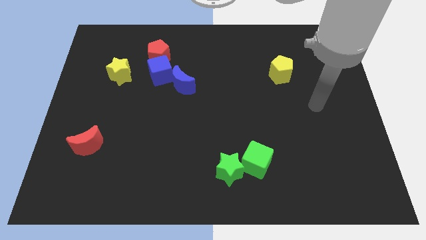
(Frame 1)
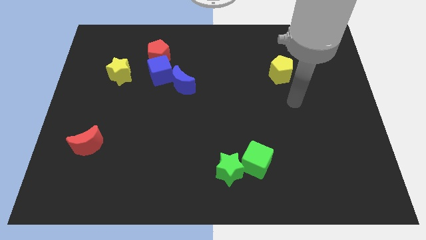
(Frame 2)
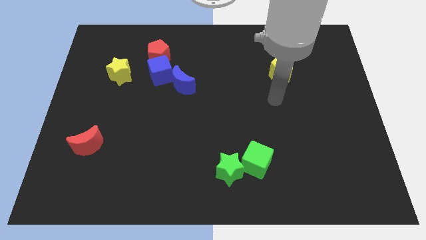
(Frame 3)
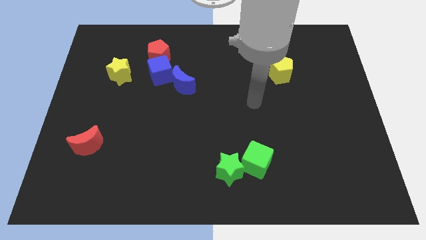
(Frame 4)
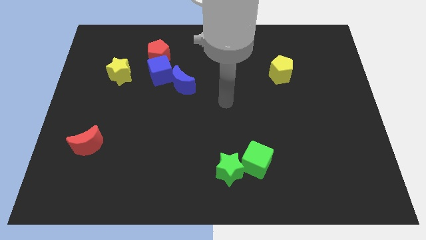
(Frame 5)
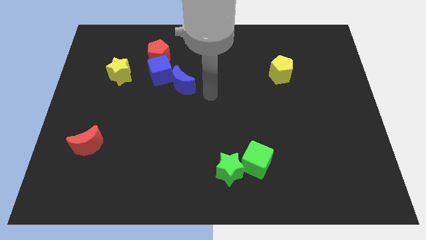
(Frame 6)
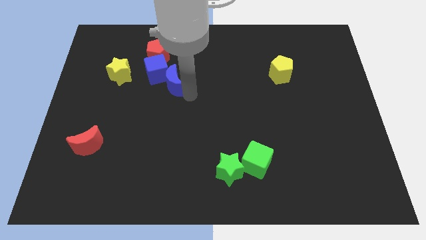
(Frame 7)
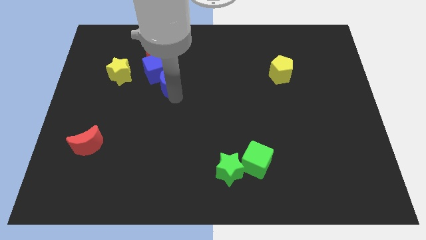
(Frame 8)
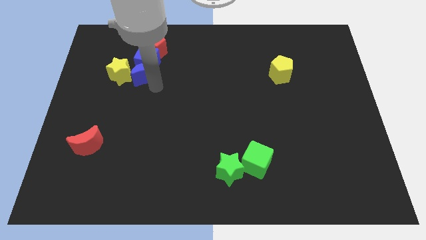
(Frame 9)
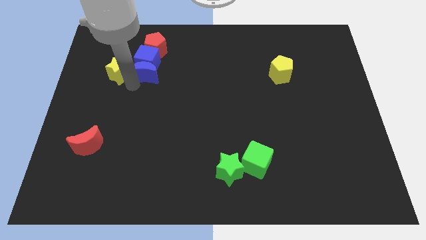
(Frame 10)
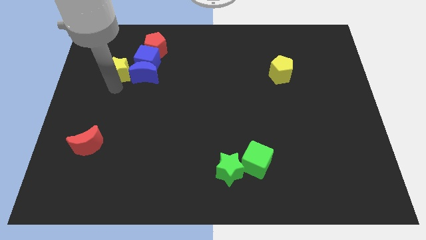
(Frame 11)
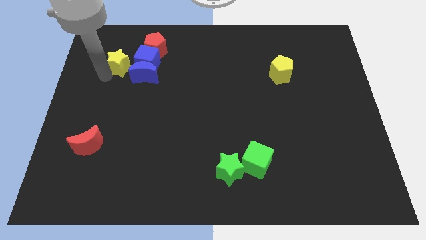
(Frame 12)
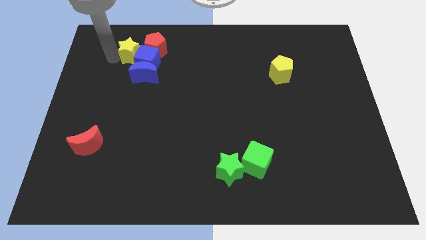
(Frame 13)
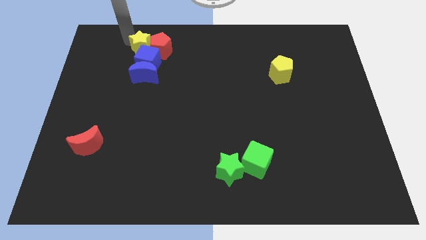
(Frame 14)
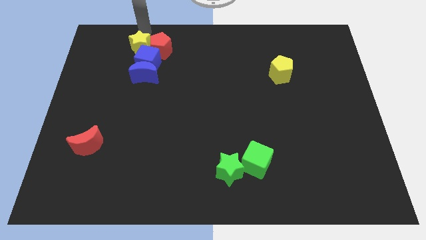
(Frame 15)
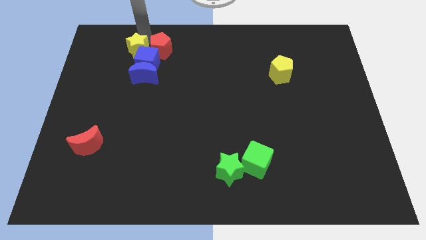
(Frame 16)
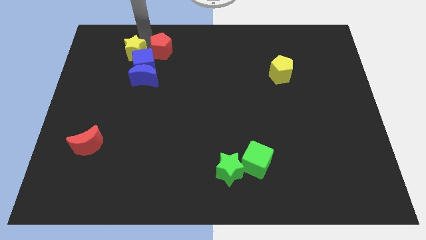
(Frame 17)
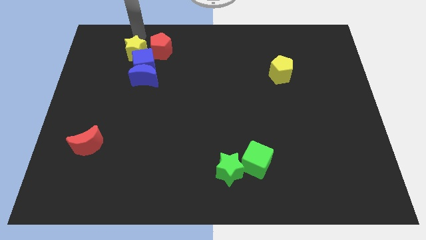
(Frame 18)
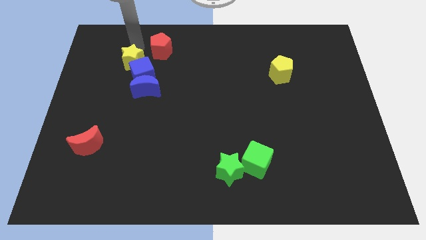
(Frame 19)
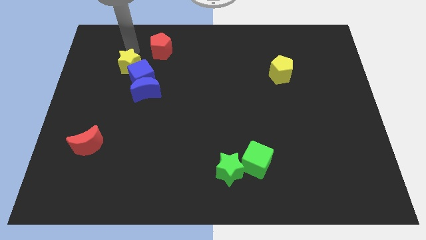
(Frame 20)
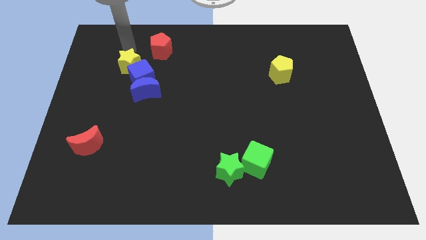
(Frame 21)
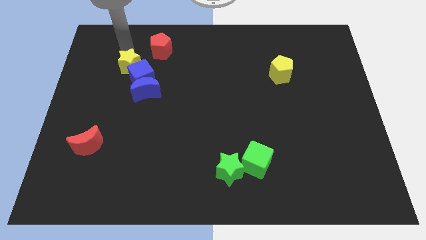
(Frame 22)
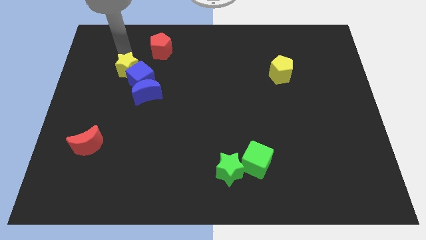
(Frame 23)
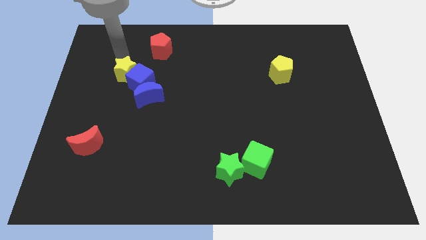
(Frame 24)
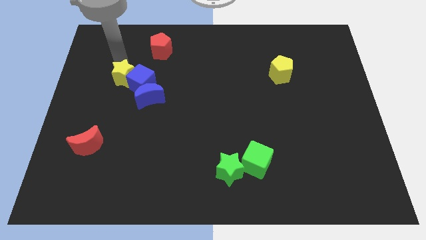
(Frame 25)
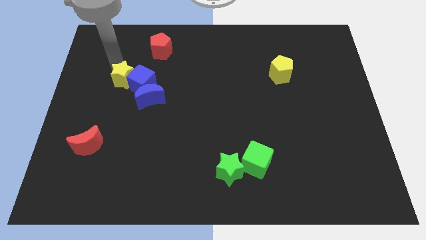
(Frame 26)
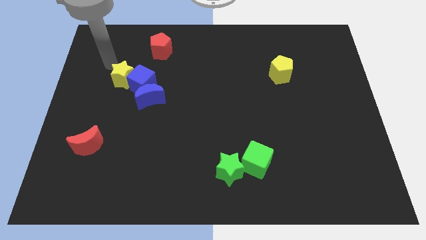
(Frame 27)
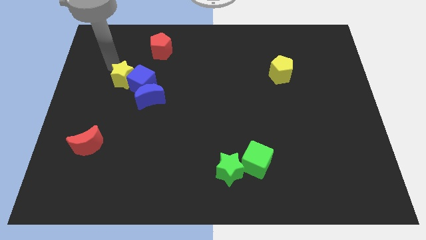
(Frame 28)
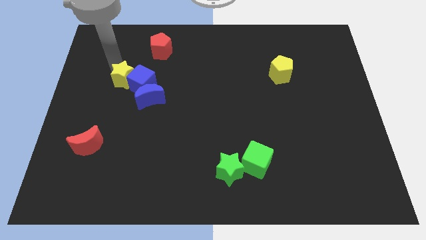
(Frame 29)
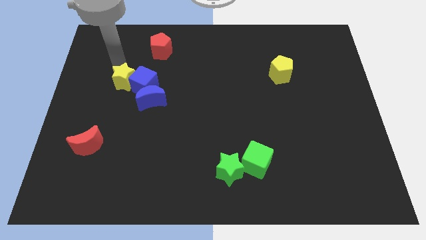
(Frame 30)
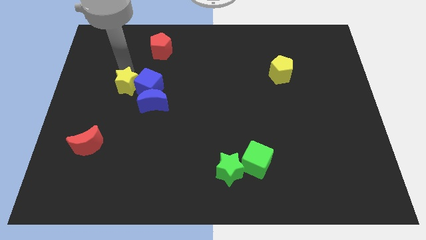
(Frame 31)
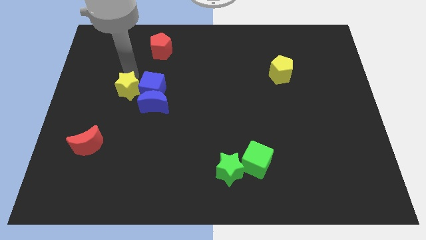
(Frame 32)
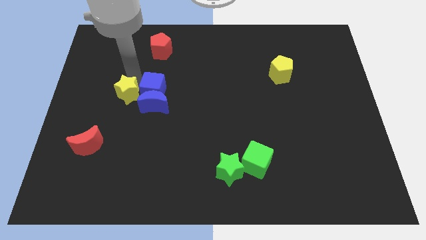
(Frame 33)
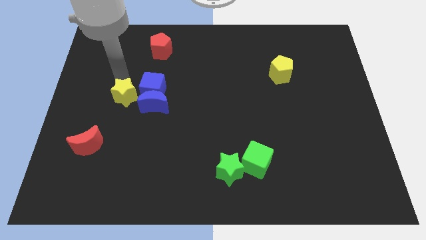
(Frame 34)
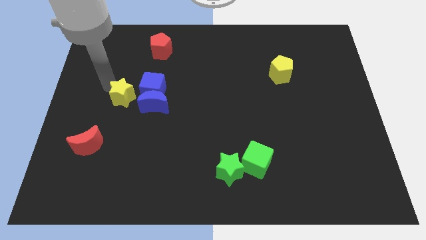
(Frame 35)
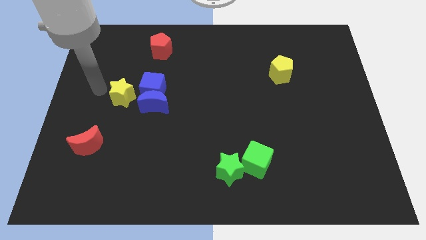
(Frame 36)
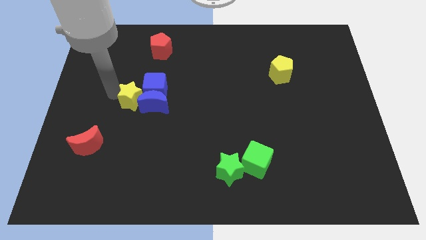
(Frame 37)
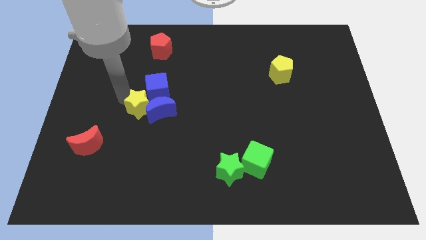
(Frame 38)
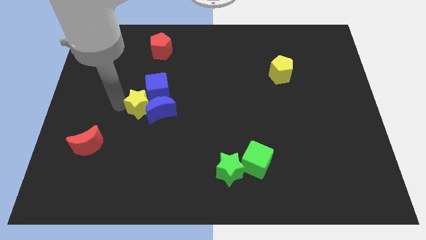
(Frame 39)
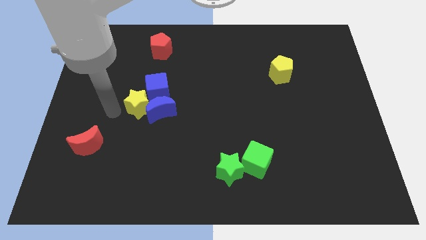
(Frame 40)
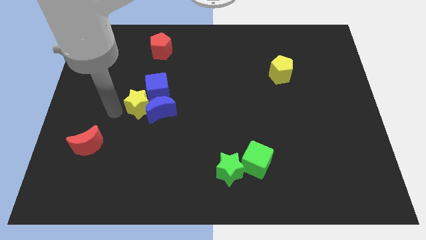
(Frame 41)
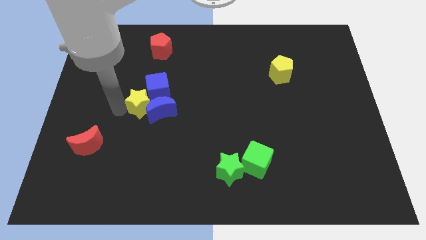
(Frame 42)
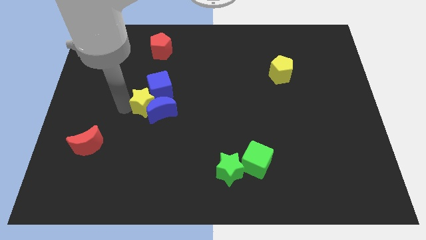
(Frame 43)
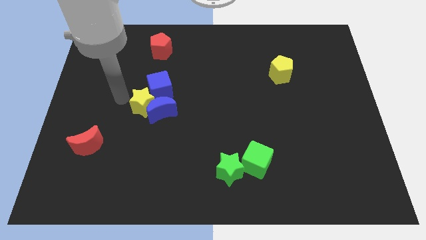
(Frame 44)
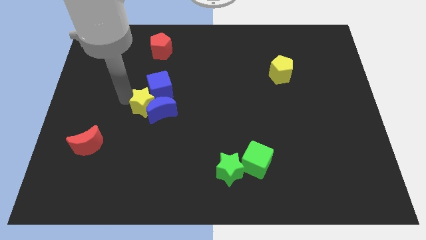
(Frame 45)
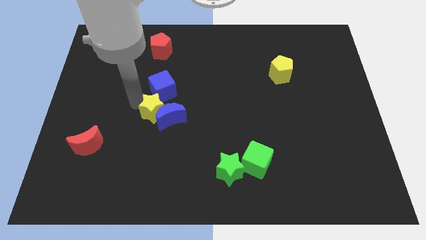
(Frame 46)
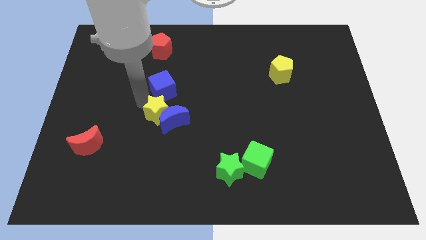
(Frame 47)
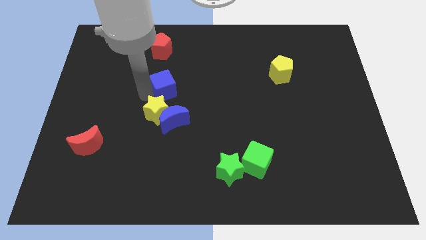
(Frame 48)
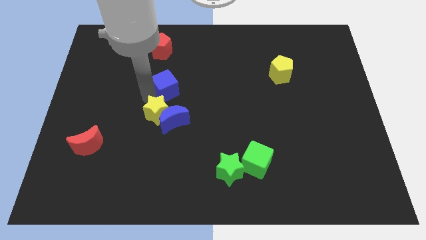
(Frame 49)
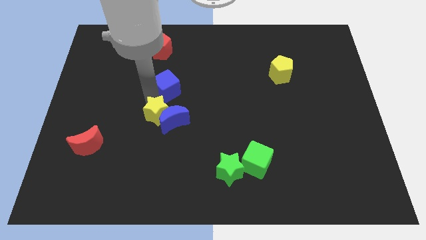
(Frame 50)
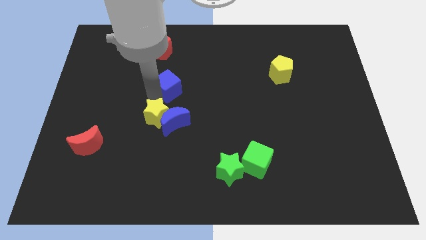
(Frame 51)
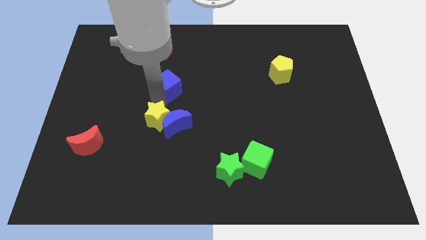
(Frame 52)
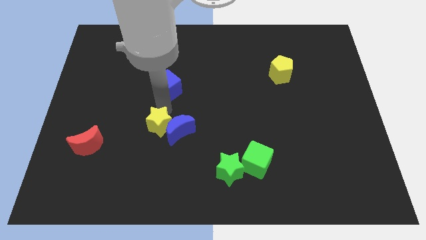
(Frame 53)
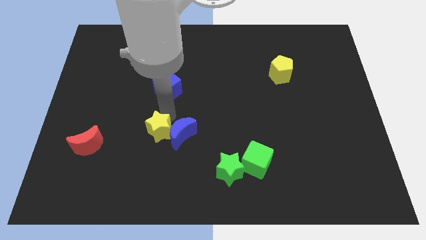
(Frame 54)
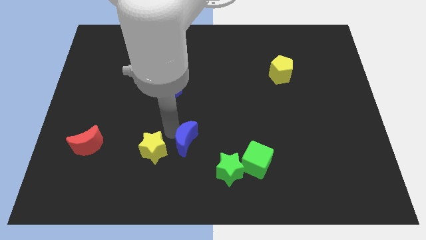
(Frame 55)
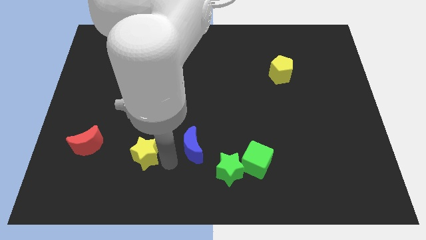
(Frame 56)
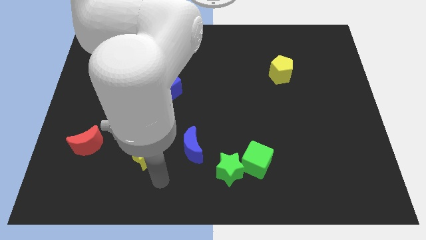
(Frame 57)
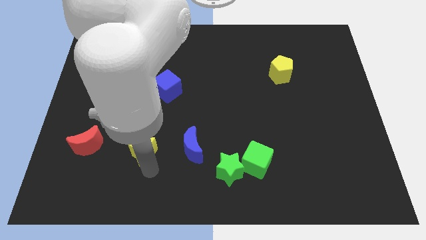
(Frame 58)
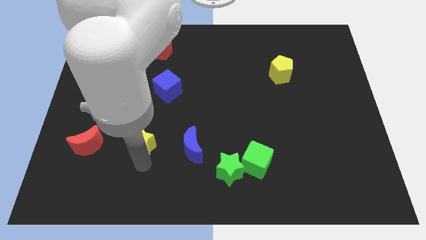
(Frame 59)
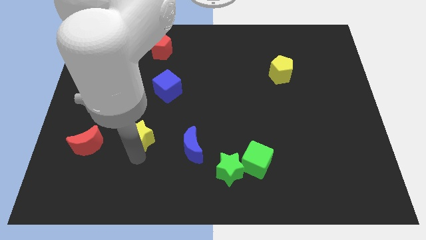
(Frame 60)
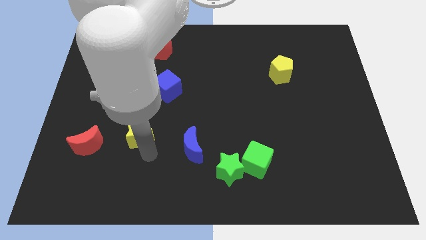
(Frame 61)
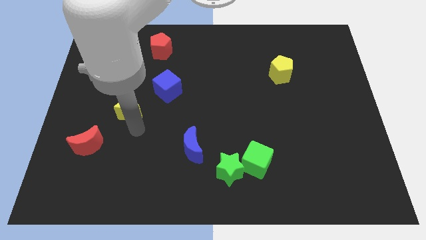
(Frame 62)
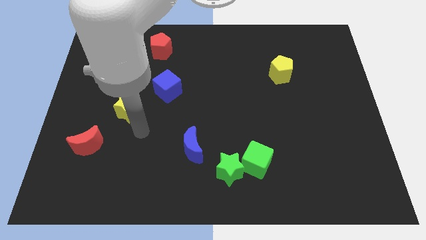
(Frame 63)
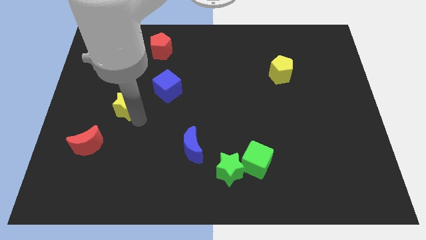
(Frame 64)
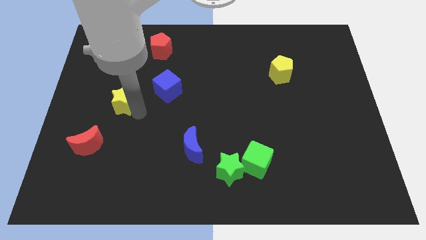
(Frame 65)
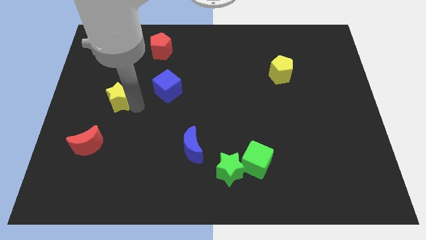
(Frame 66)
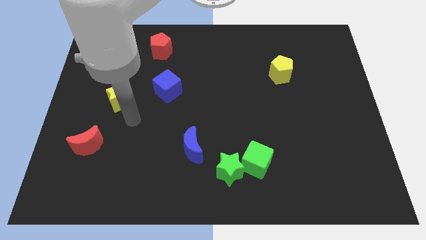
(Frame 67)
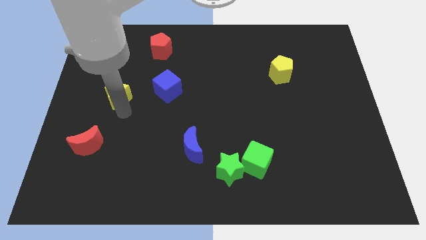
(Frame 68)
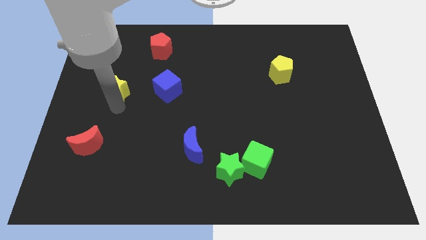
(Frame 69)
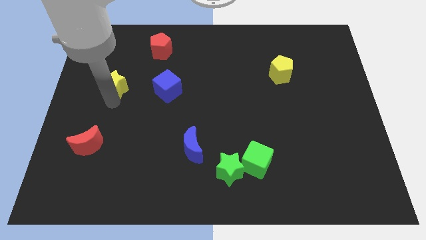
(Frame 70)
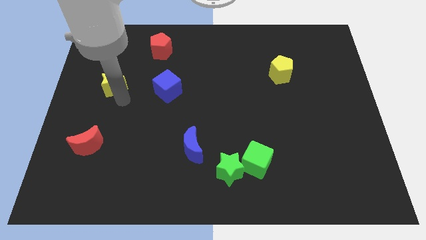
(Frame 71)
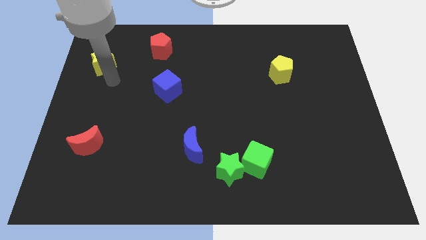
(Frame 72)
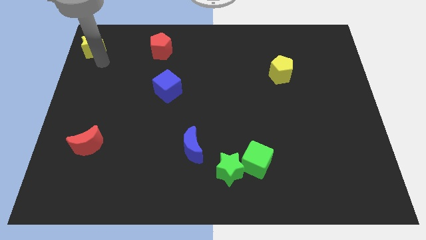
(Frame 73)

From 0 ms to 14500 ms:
slide the yellow star to the top left of the board
